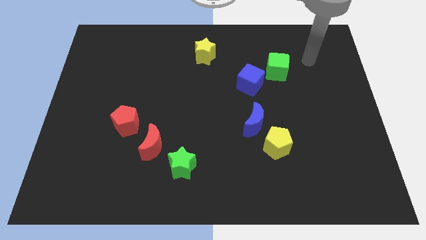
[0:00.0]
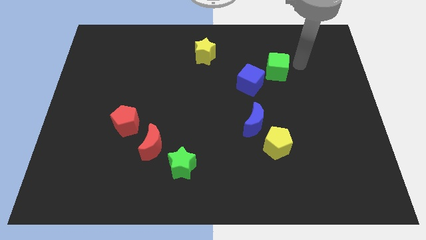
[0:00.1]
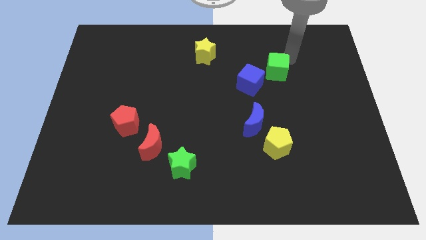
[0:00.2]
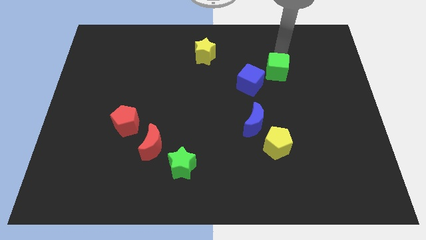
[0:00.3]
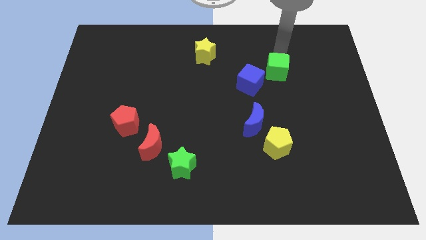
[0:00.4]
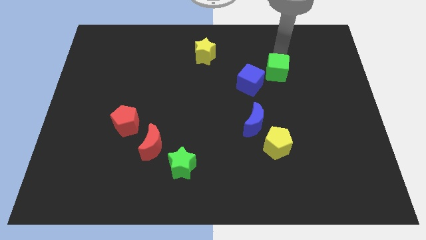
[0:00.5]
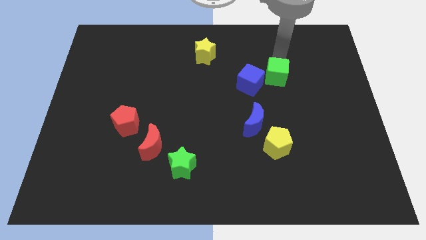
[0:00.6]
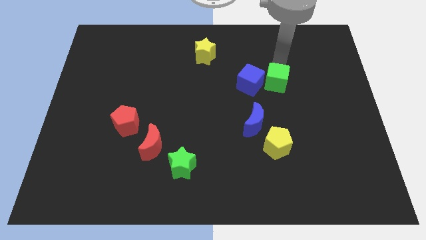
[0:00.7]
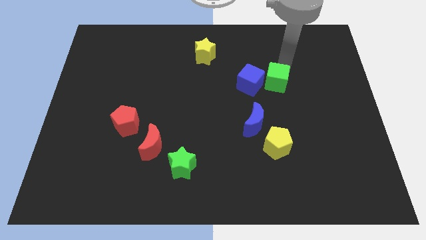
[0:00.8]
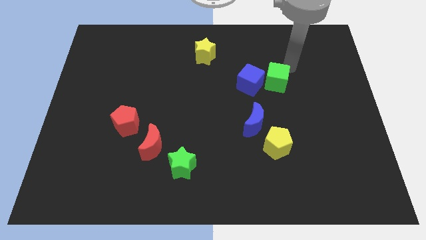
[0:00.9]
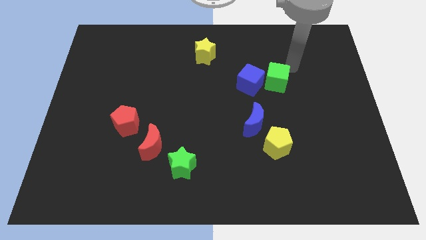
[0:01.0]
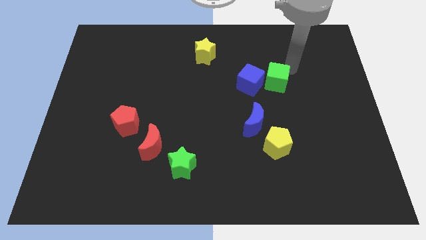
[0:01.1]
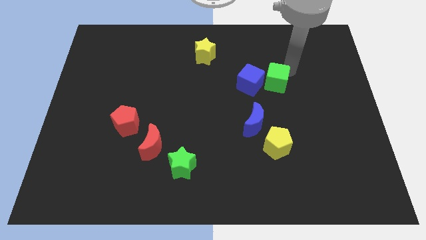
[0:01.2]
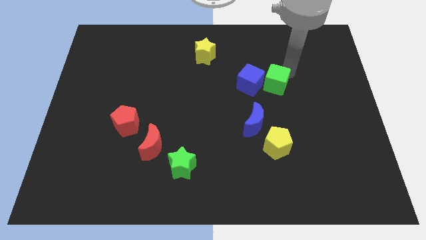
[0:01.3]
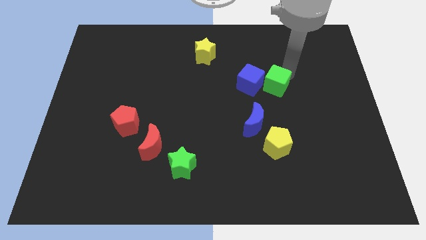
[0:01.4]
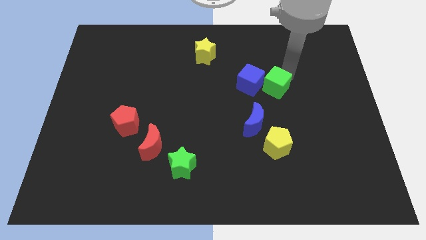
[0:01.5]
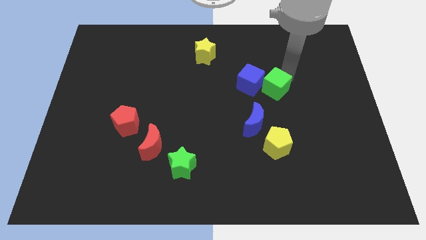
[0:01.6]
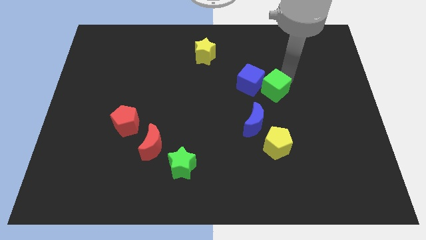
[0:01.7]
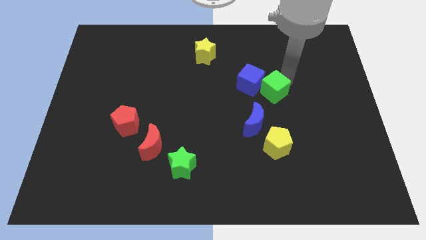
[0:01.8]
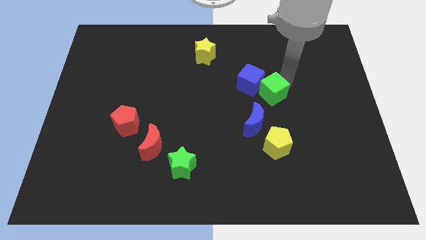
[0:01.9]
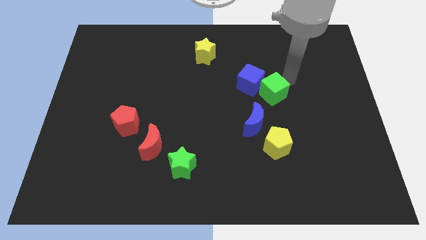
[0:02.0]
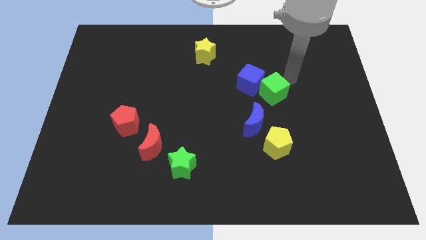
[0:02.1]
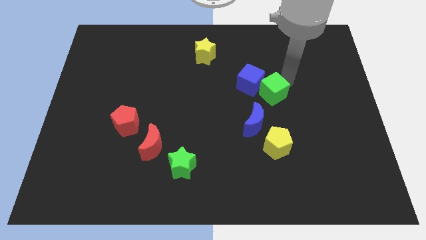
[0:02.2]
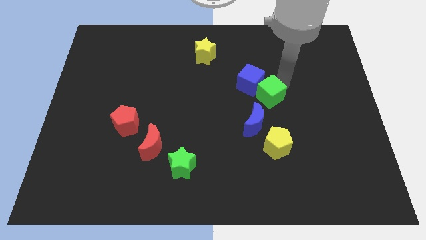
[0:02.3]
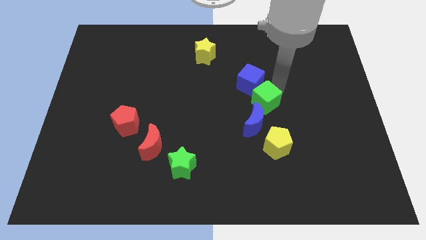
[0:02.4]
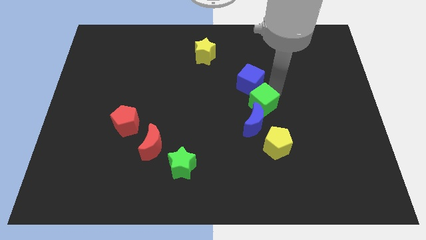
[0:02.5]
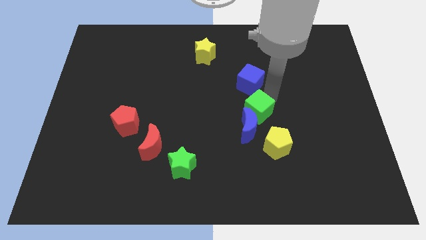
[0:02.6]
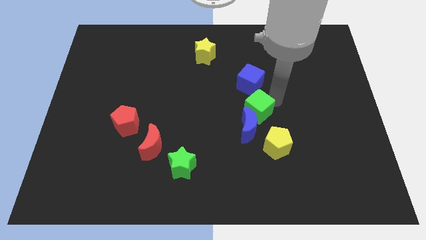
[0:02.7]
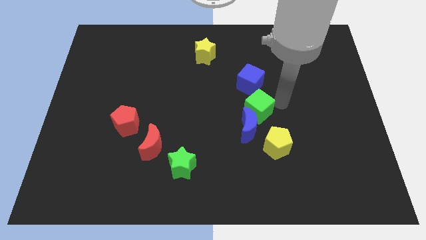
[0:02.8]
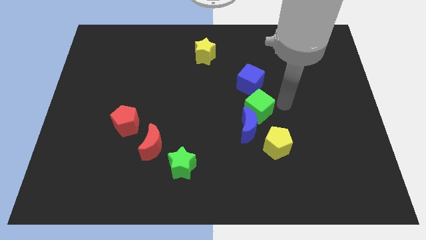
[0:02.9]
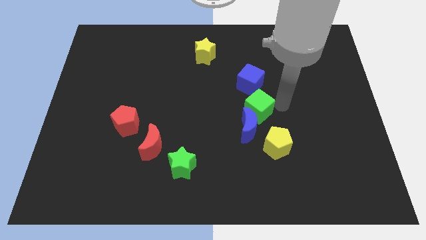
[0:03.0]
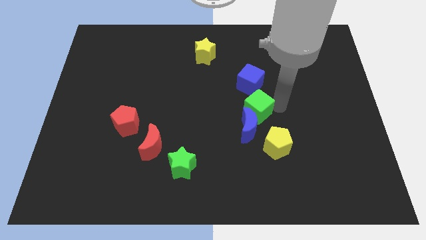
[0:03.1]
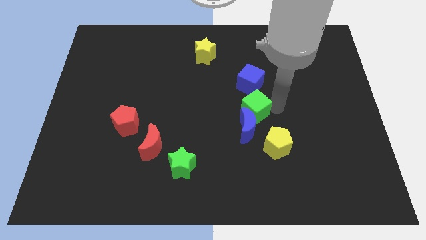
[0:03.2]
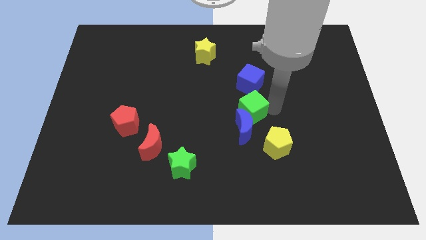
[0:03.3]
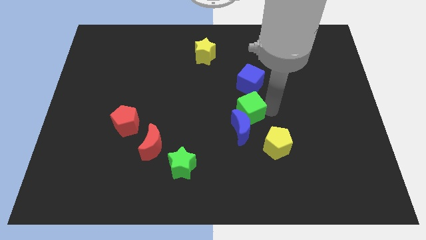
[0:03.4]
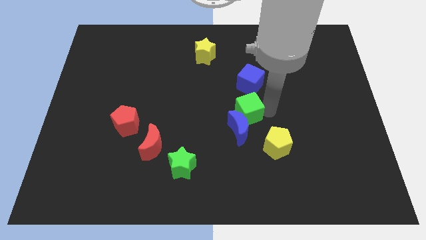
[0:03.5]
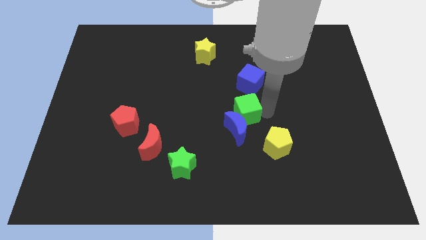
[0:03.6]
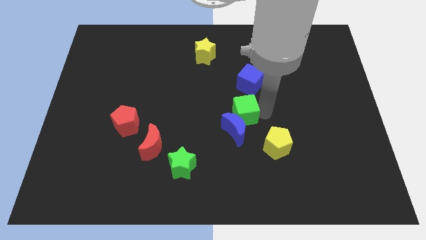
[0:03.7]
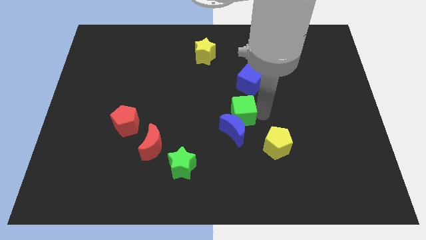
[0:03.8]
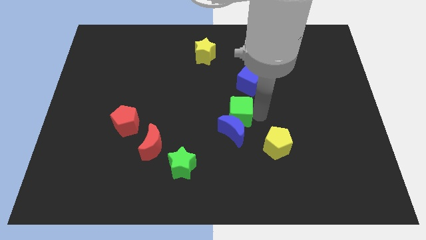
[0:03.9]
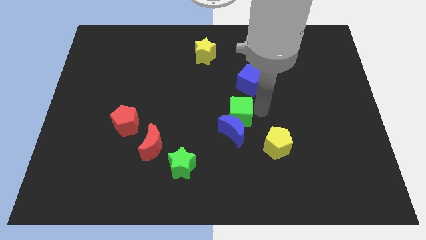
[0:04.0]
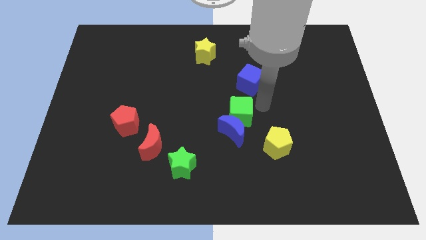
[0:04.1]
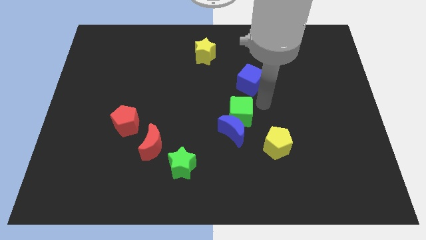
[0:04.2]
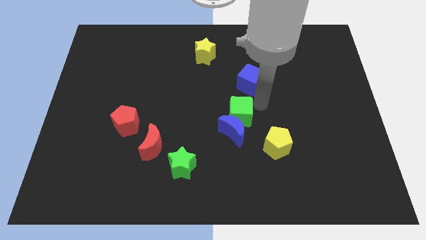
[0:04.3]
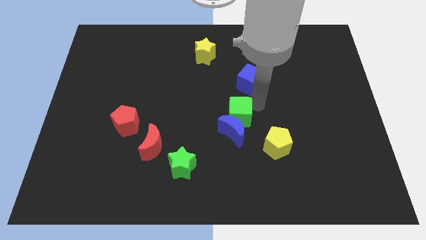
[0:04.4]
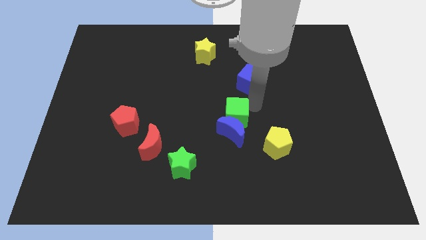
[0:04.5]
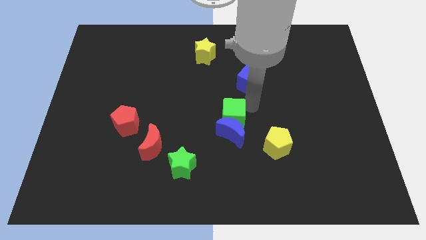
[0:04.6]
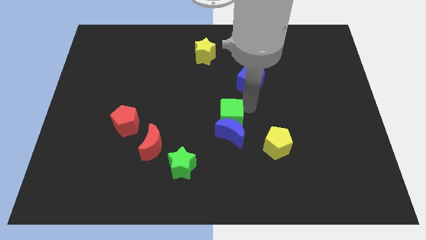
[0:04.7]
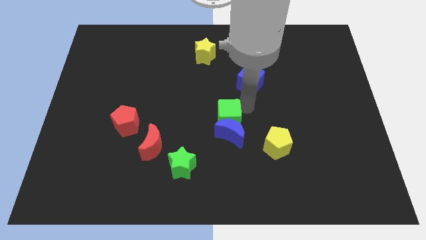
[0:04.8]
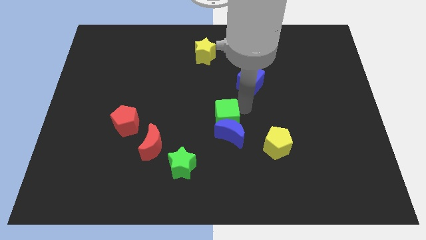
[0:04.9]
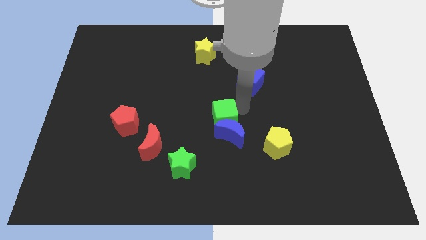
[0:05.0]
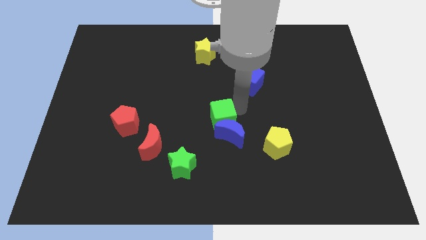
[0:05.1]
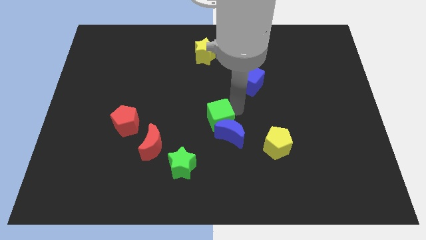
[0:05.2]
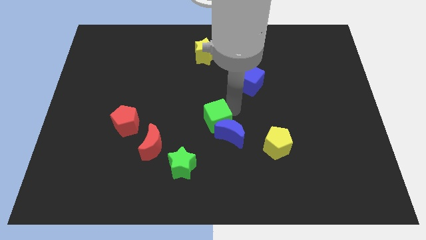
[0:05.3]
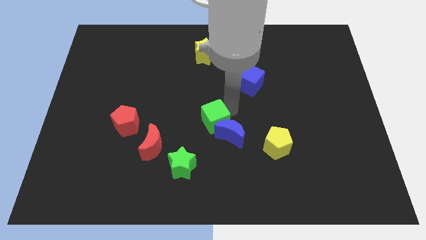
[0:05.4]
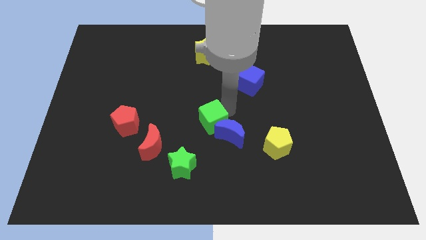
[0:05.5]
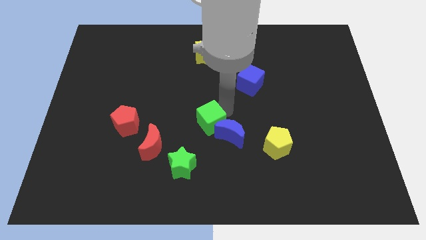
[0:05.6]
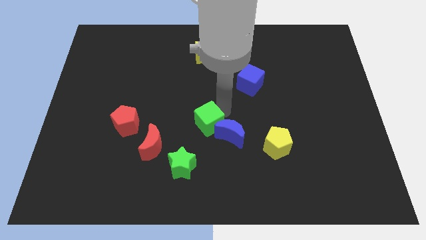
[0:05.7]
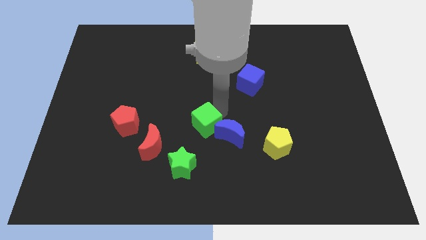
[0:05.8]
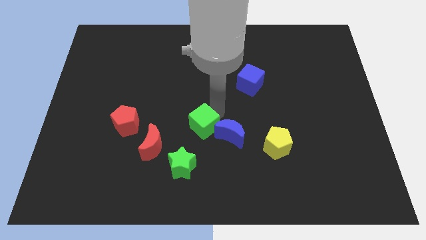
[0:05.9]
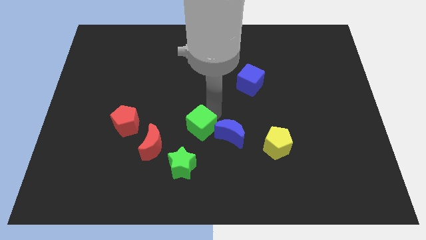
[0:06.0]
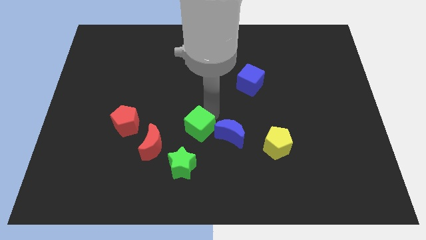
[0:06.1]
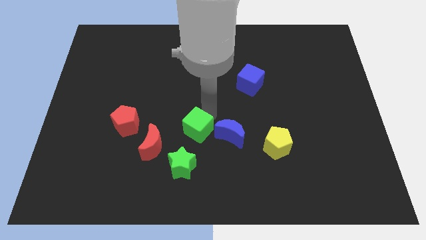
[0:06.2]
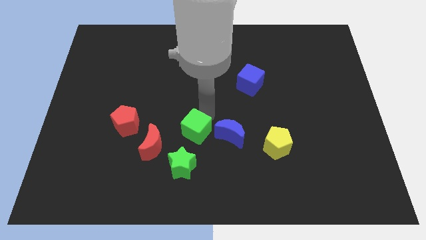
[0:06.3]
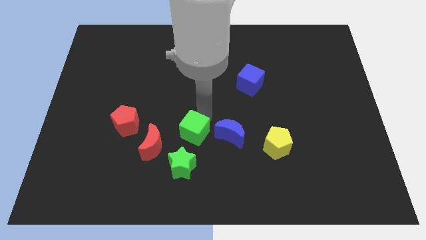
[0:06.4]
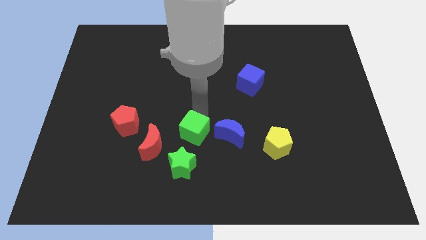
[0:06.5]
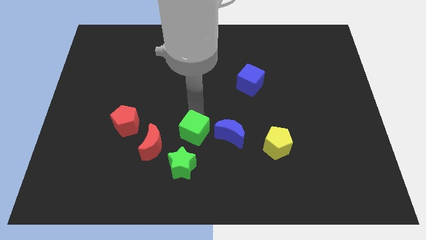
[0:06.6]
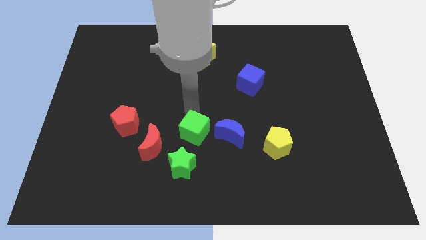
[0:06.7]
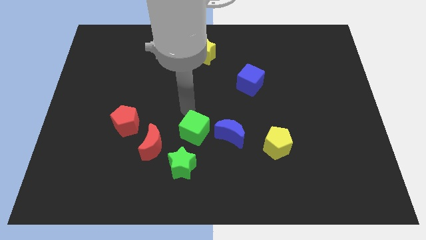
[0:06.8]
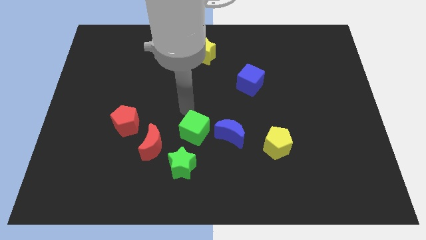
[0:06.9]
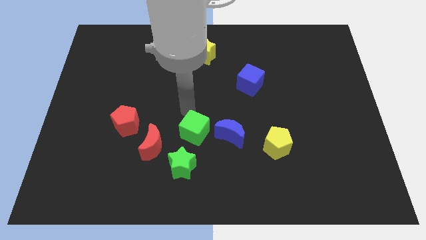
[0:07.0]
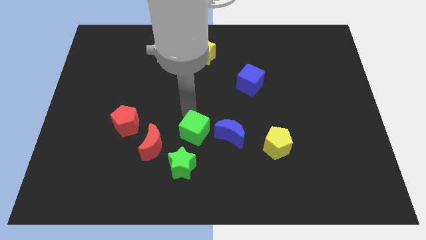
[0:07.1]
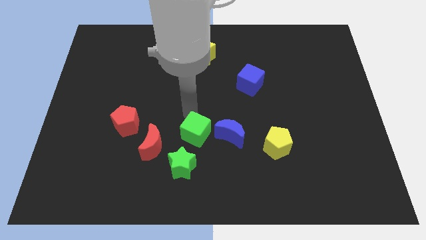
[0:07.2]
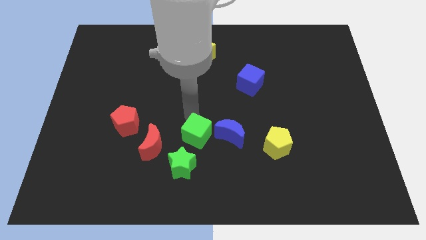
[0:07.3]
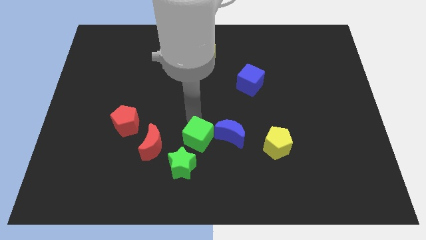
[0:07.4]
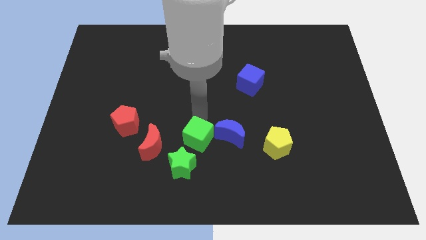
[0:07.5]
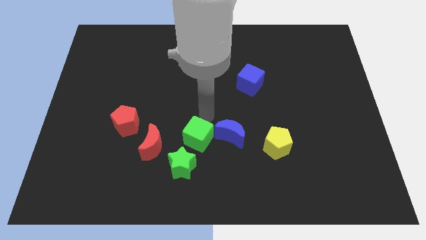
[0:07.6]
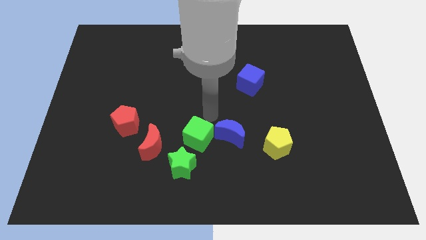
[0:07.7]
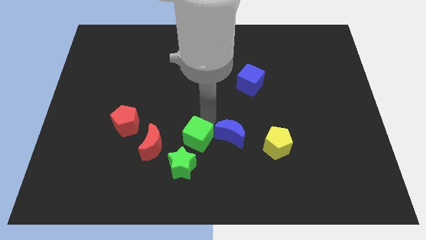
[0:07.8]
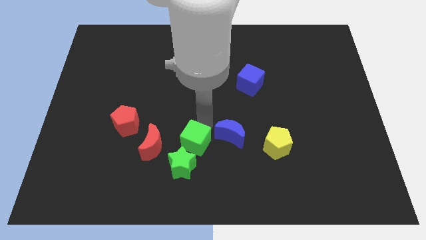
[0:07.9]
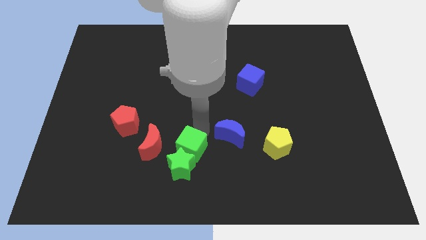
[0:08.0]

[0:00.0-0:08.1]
move the green cube close to the green star

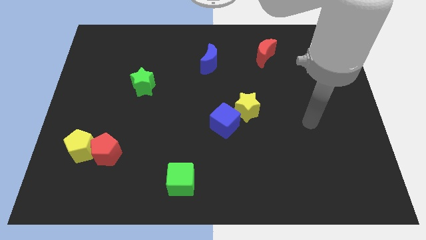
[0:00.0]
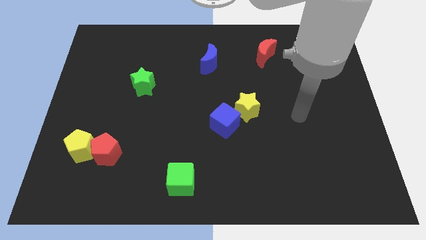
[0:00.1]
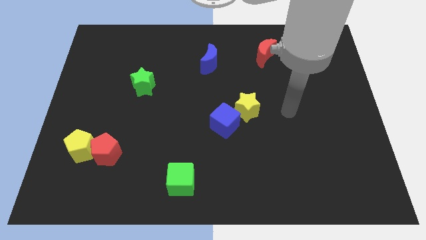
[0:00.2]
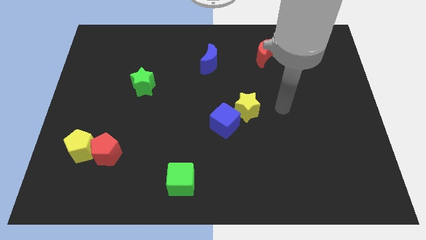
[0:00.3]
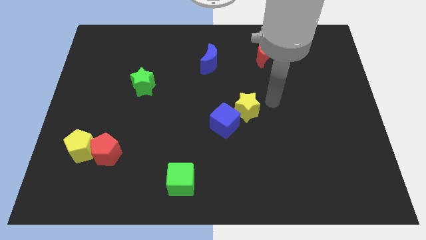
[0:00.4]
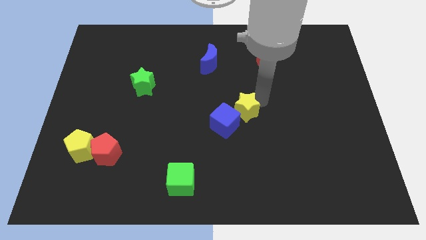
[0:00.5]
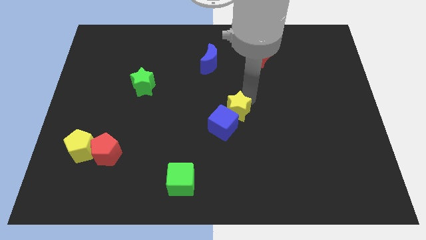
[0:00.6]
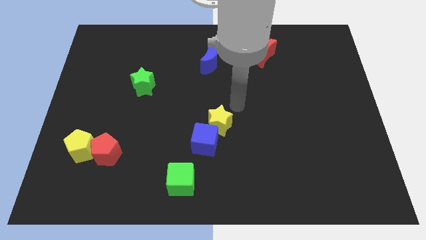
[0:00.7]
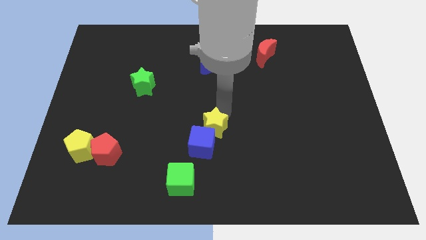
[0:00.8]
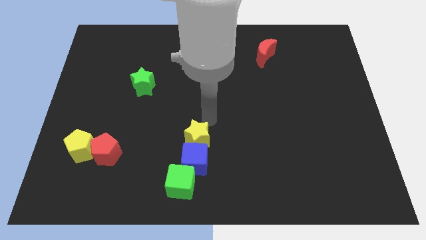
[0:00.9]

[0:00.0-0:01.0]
push the blue cube towards the green cube
